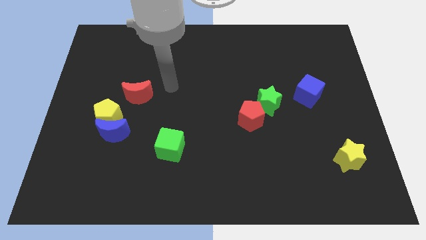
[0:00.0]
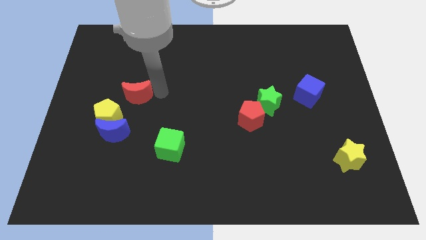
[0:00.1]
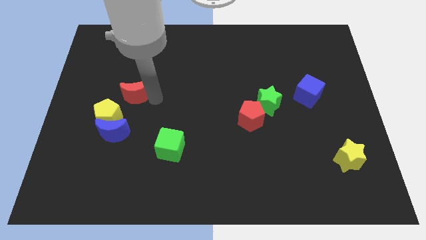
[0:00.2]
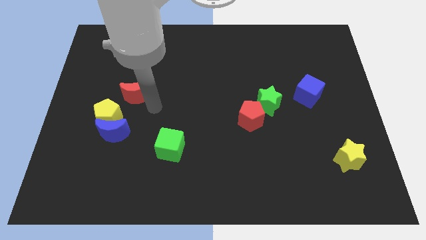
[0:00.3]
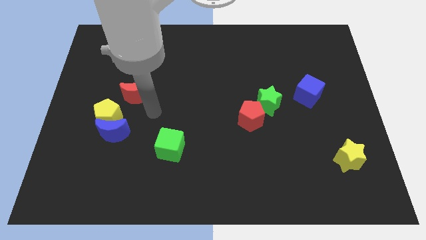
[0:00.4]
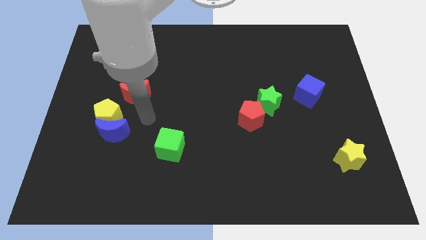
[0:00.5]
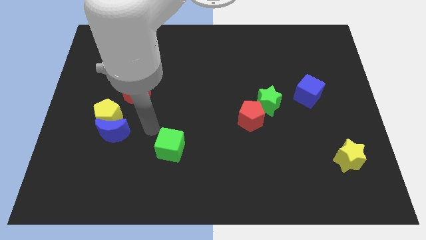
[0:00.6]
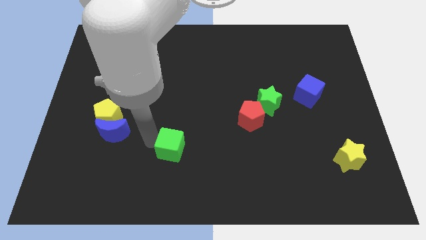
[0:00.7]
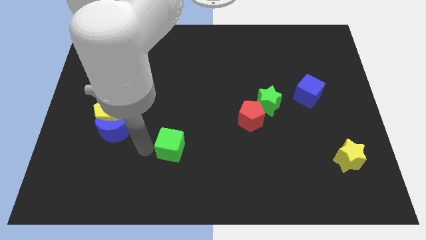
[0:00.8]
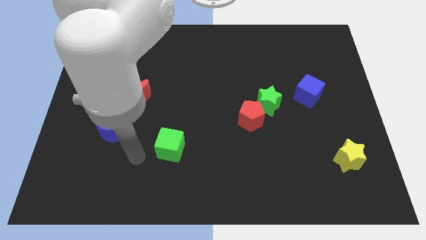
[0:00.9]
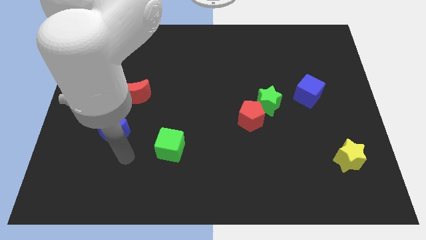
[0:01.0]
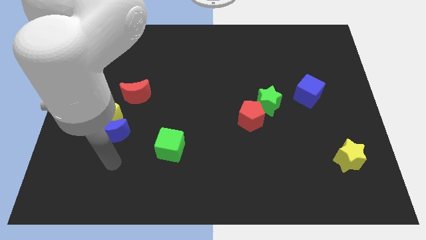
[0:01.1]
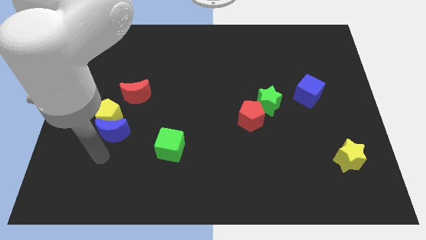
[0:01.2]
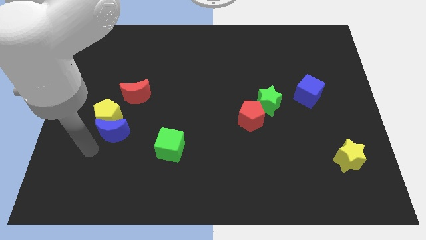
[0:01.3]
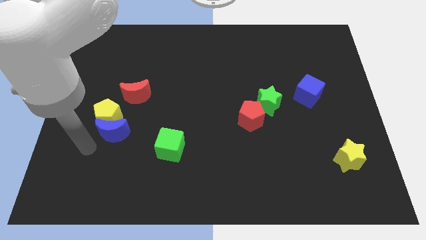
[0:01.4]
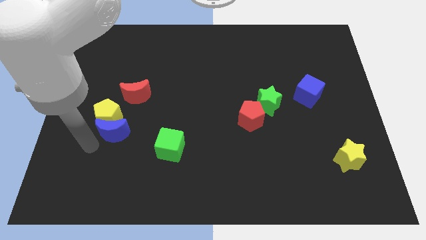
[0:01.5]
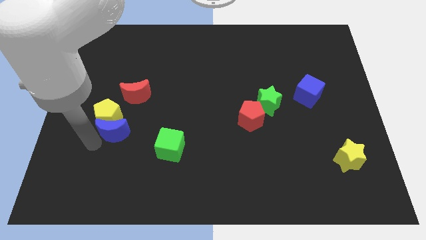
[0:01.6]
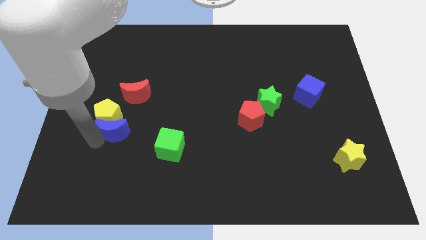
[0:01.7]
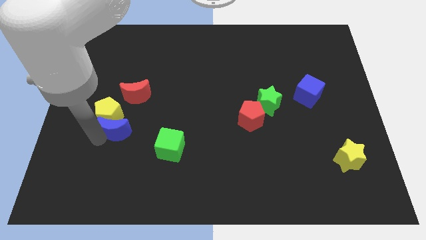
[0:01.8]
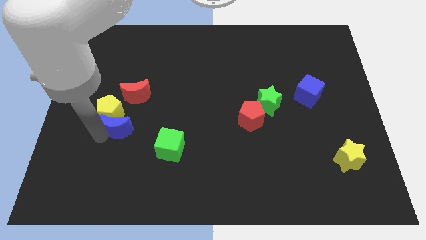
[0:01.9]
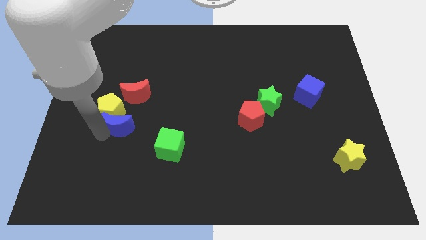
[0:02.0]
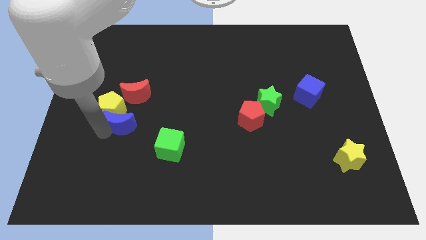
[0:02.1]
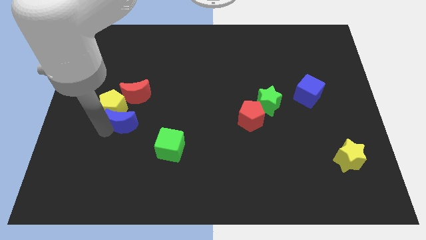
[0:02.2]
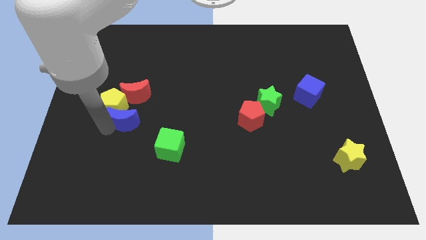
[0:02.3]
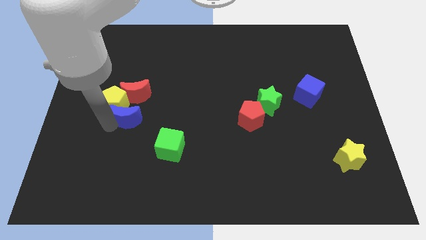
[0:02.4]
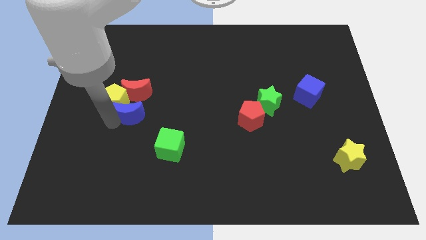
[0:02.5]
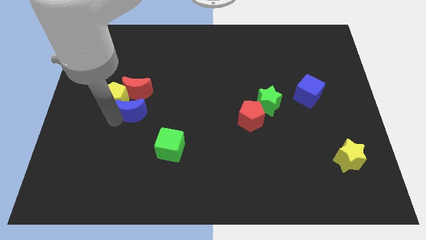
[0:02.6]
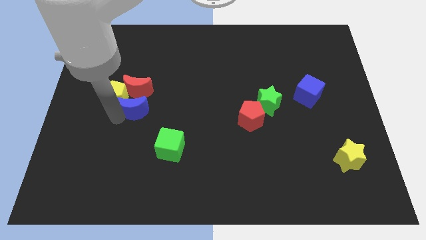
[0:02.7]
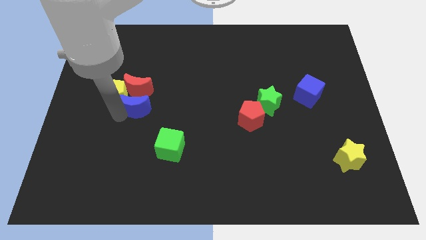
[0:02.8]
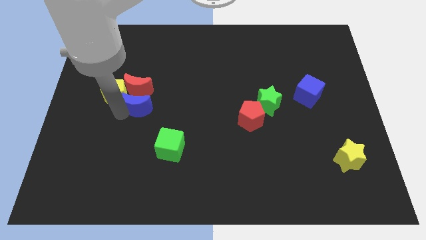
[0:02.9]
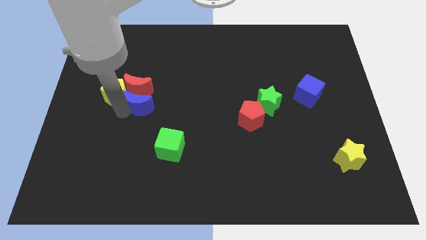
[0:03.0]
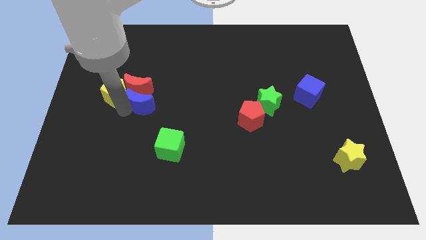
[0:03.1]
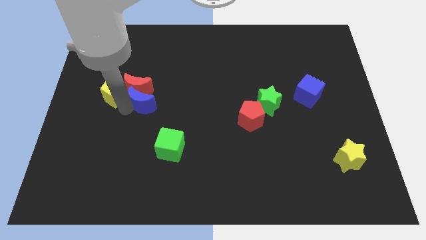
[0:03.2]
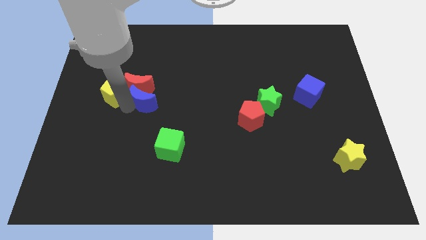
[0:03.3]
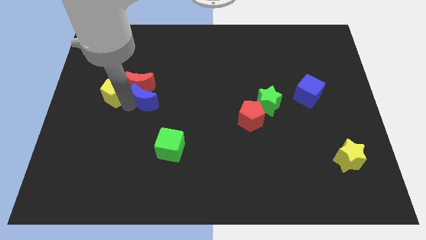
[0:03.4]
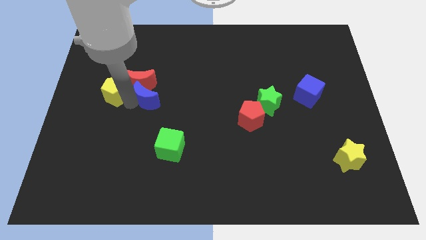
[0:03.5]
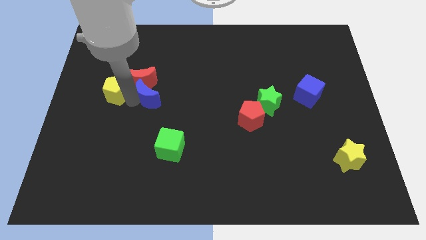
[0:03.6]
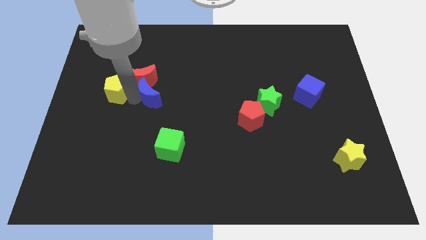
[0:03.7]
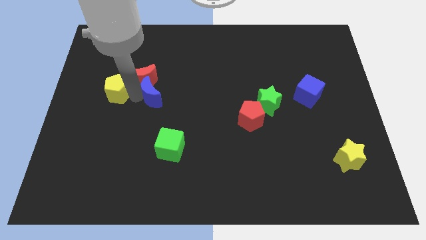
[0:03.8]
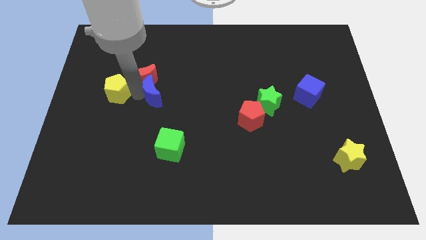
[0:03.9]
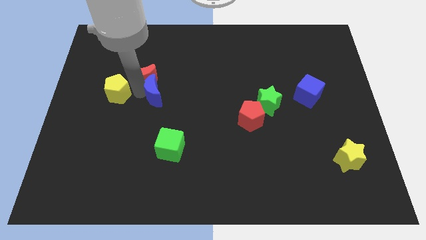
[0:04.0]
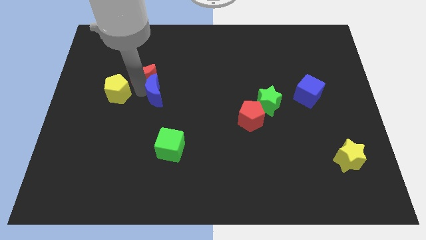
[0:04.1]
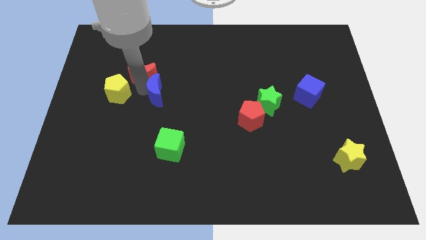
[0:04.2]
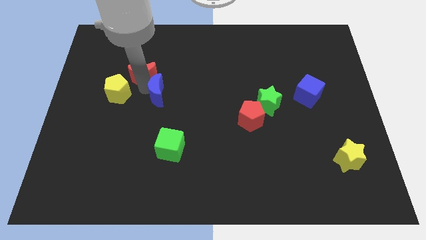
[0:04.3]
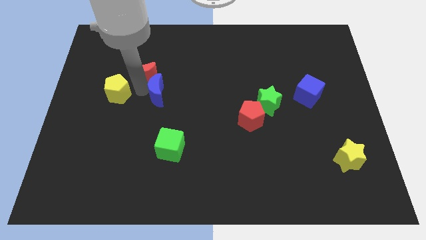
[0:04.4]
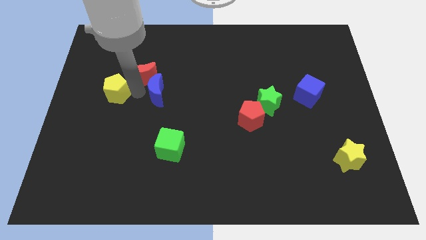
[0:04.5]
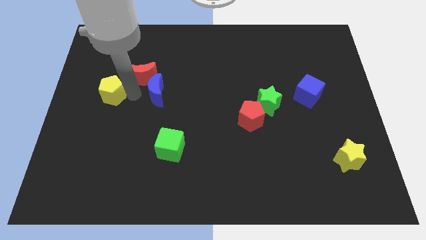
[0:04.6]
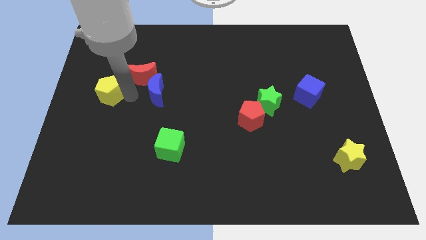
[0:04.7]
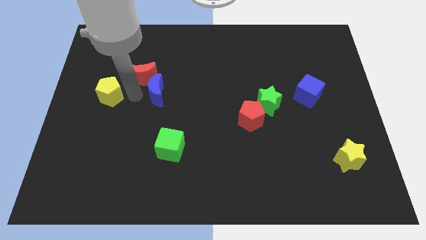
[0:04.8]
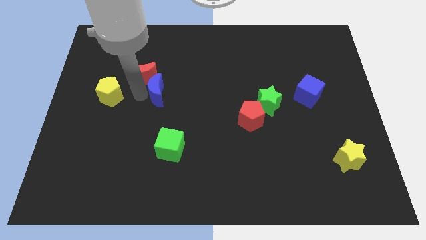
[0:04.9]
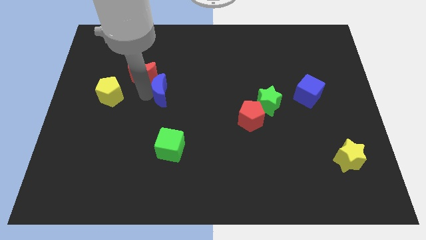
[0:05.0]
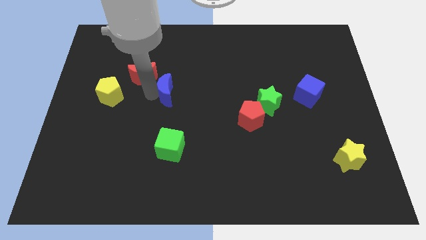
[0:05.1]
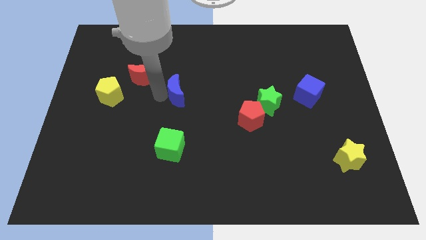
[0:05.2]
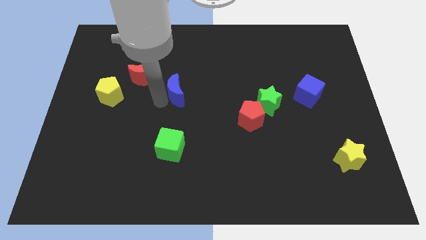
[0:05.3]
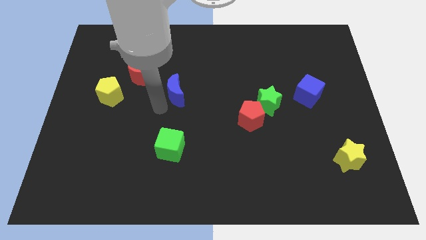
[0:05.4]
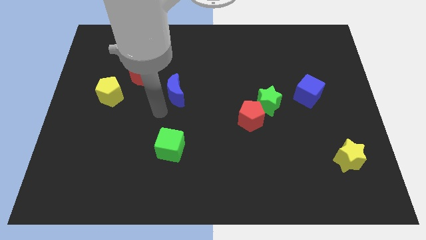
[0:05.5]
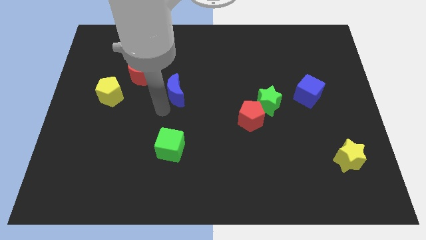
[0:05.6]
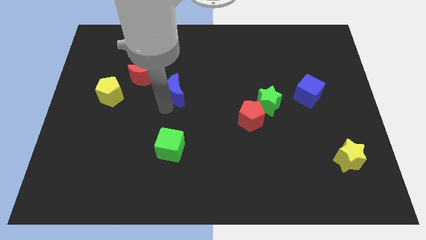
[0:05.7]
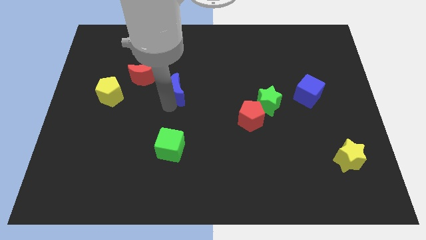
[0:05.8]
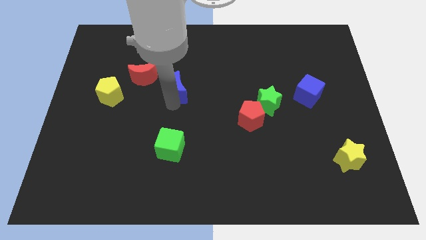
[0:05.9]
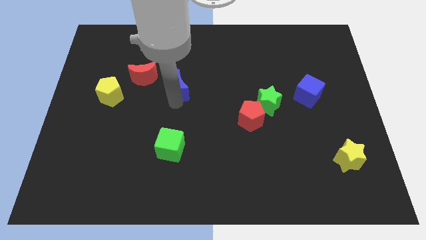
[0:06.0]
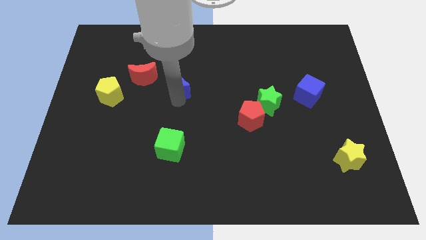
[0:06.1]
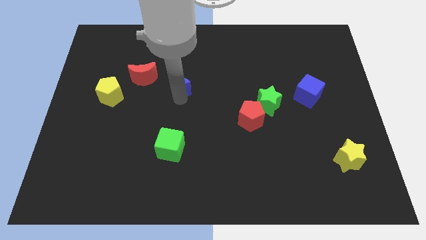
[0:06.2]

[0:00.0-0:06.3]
move the blue moon up and right diagonally

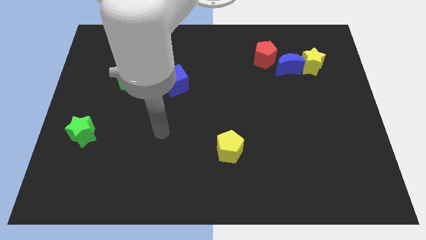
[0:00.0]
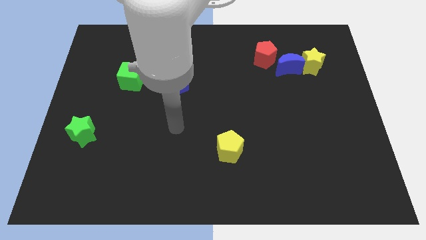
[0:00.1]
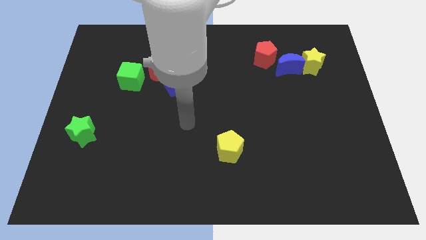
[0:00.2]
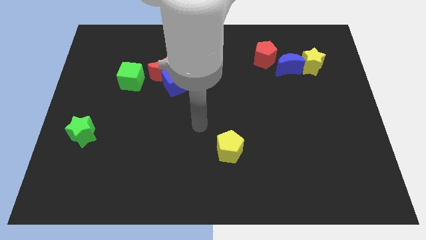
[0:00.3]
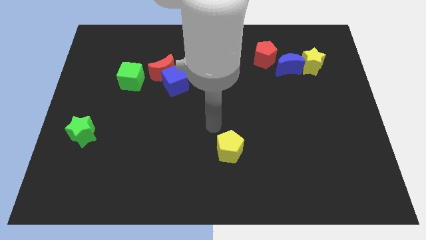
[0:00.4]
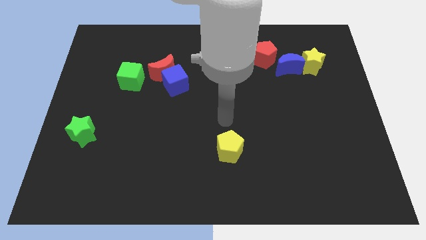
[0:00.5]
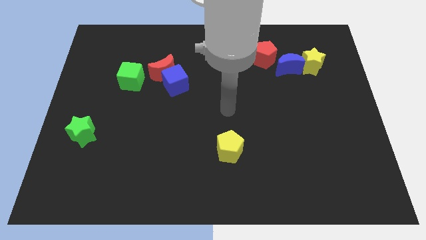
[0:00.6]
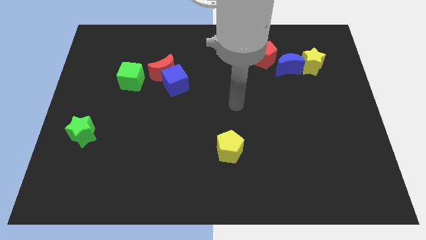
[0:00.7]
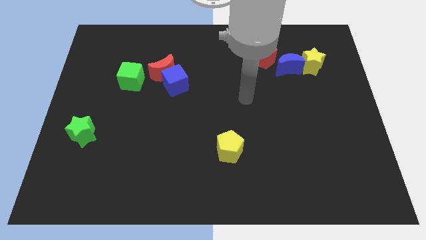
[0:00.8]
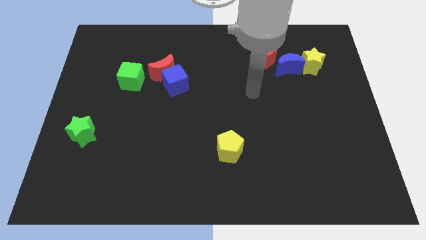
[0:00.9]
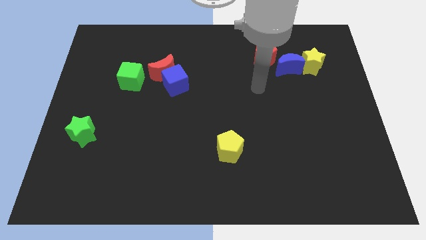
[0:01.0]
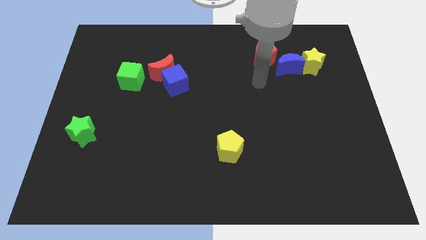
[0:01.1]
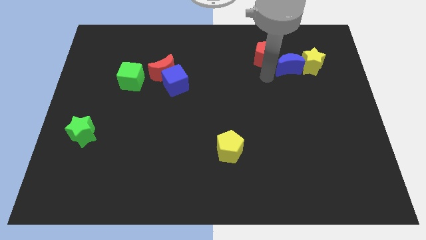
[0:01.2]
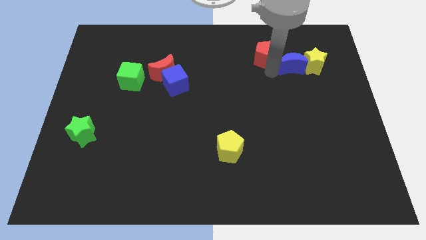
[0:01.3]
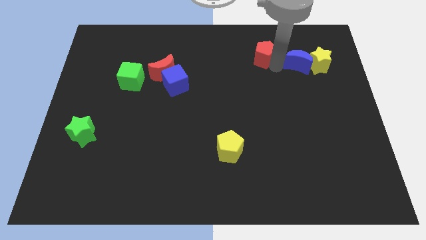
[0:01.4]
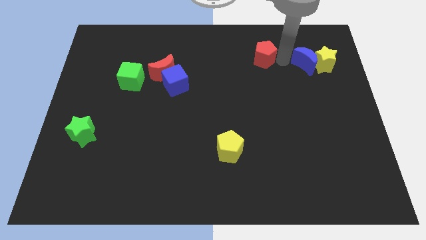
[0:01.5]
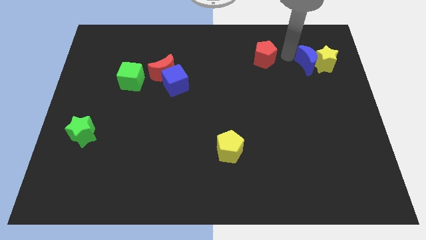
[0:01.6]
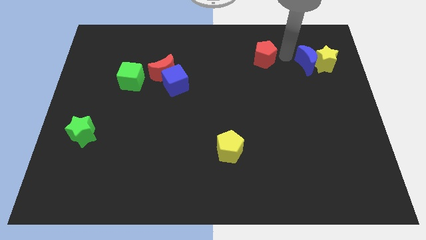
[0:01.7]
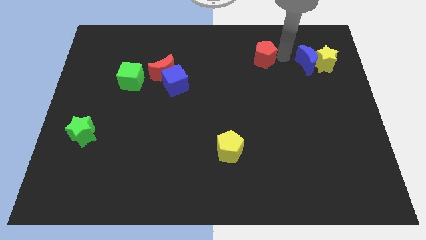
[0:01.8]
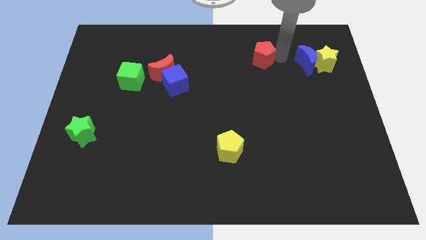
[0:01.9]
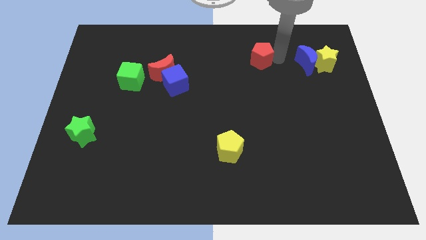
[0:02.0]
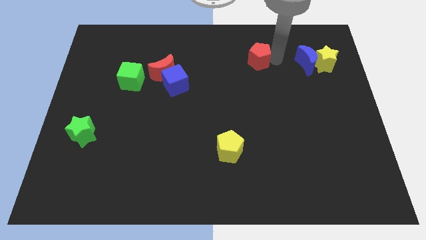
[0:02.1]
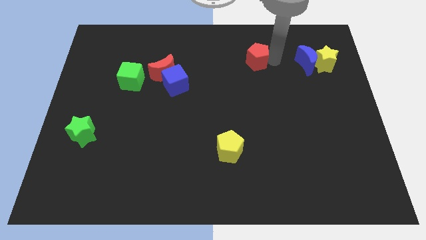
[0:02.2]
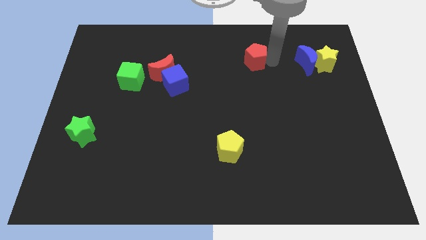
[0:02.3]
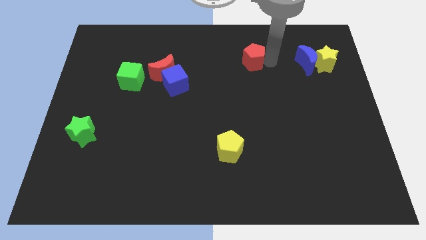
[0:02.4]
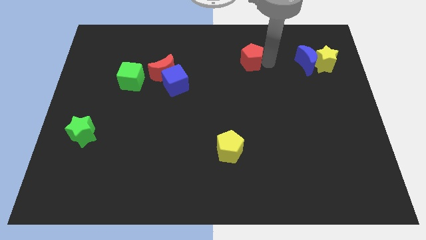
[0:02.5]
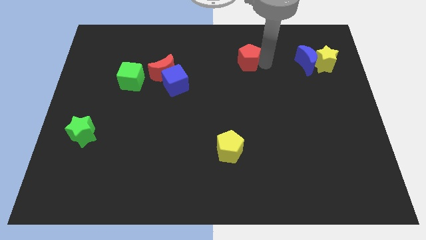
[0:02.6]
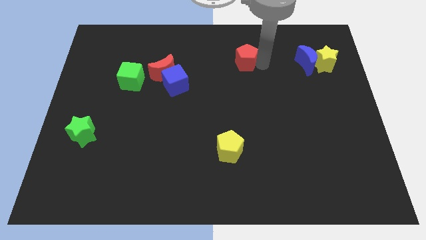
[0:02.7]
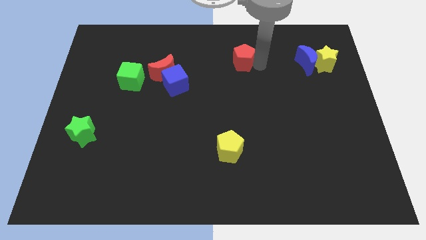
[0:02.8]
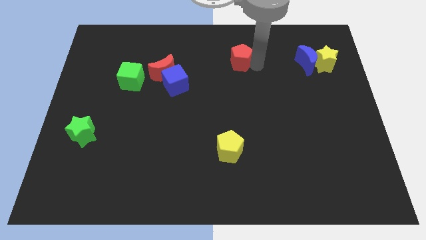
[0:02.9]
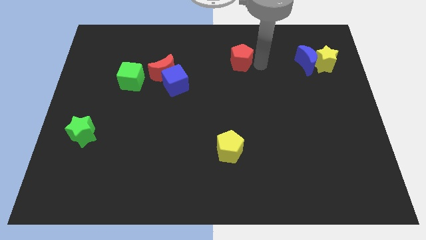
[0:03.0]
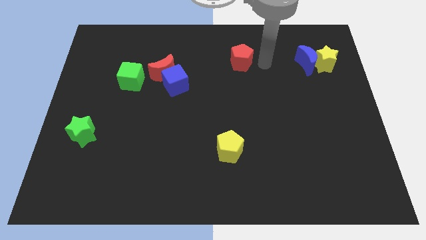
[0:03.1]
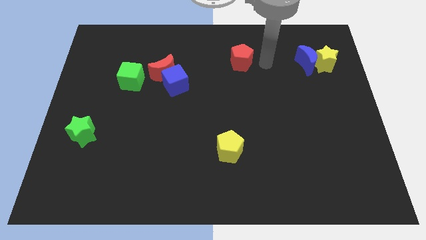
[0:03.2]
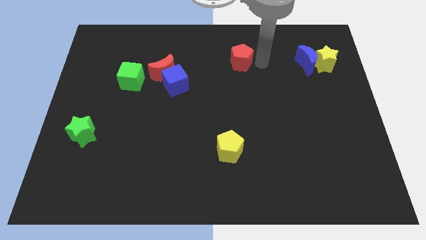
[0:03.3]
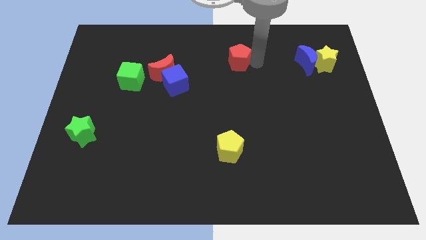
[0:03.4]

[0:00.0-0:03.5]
slightly push the red pentagon left
